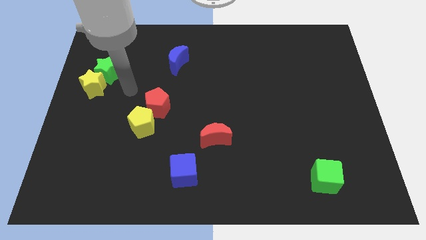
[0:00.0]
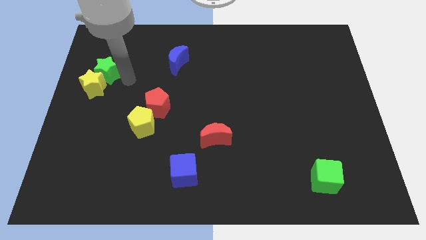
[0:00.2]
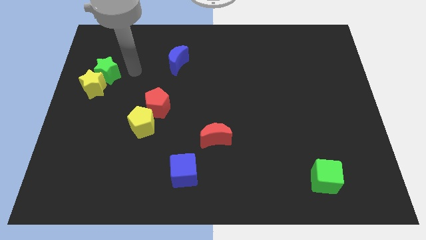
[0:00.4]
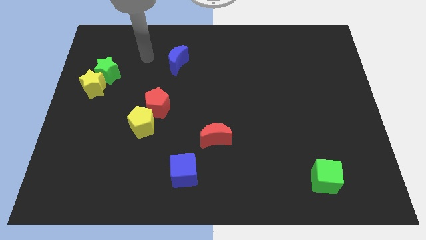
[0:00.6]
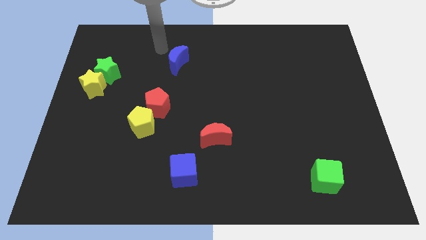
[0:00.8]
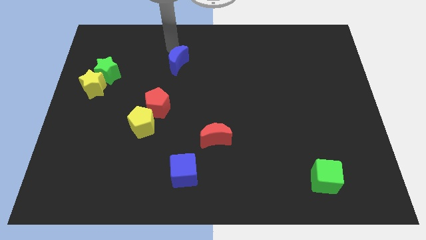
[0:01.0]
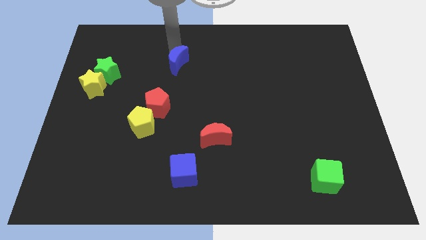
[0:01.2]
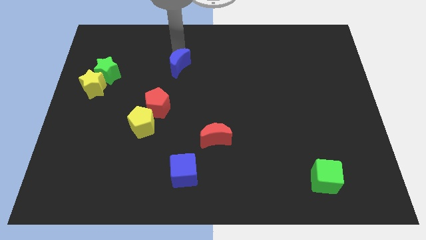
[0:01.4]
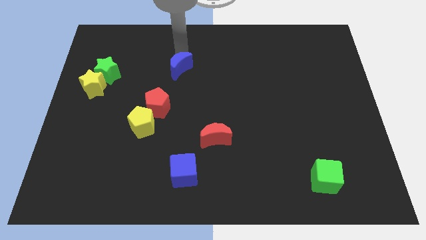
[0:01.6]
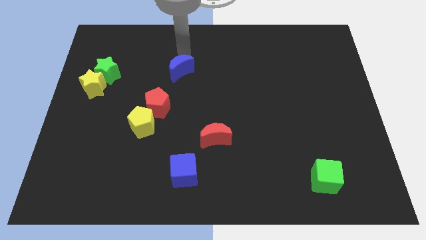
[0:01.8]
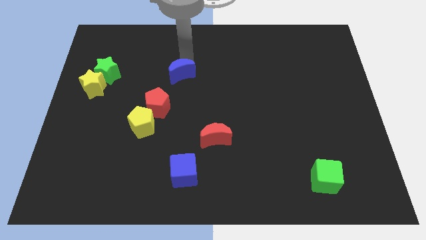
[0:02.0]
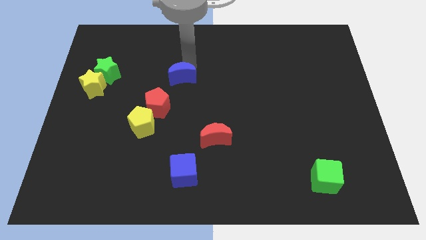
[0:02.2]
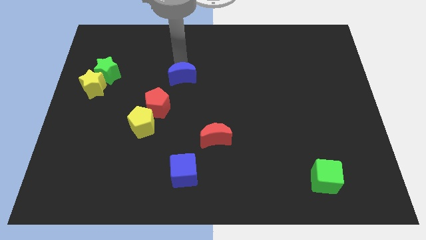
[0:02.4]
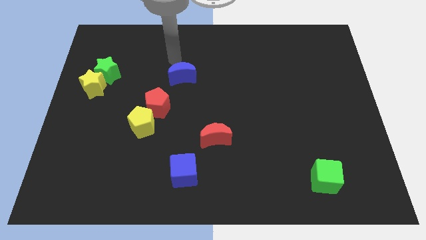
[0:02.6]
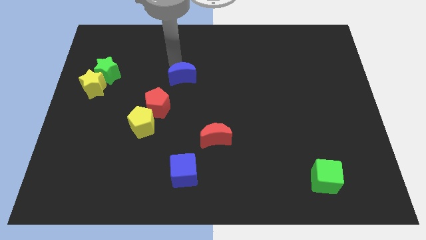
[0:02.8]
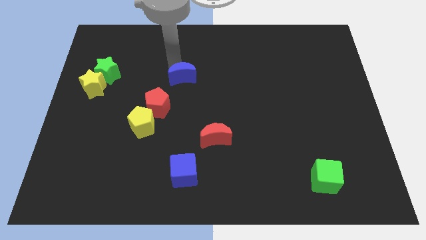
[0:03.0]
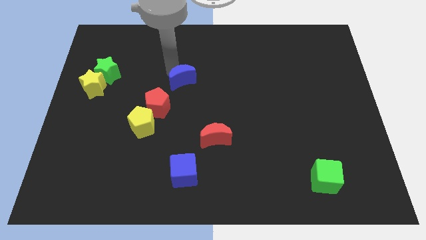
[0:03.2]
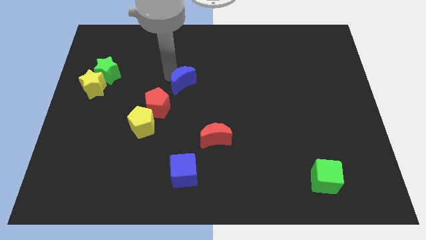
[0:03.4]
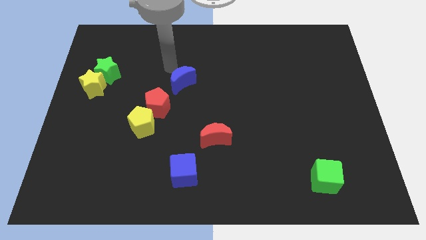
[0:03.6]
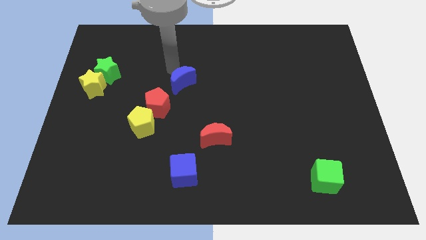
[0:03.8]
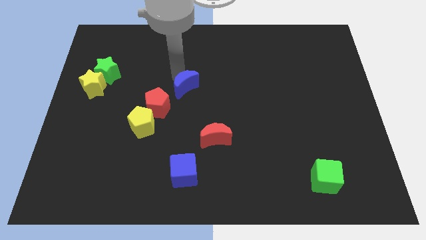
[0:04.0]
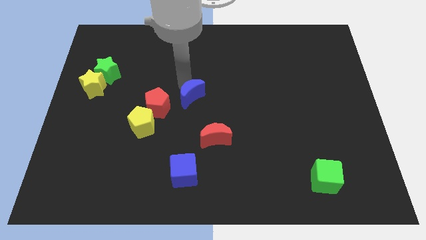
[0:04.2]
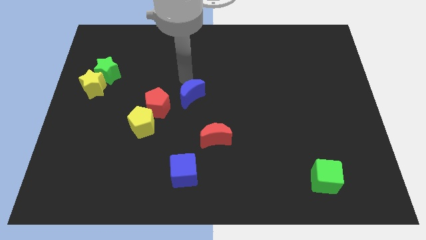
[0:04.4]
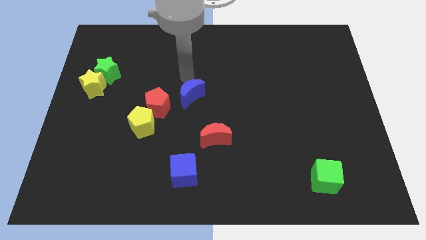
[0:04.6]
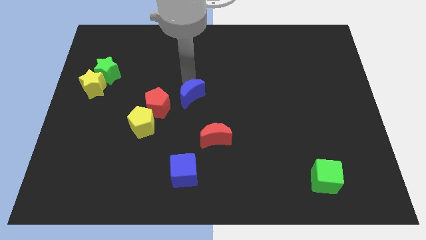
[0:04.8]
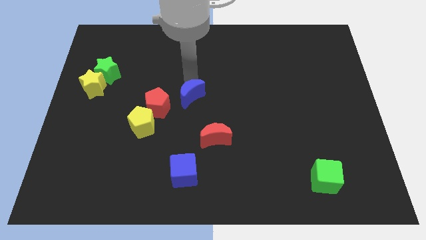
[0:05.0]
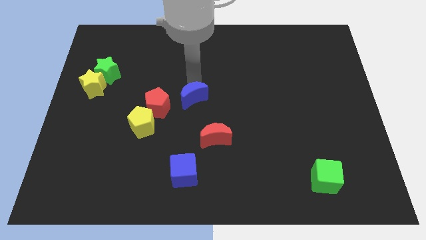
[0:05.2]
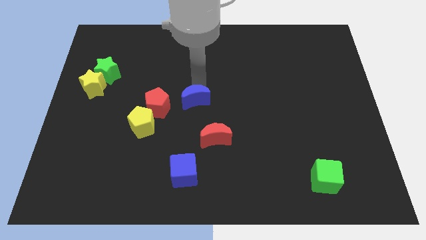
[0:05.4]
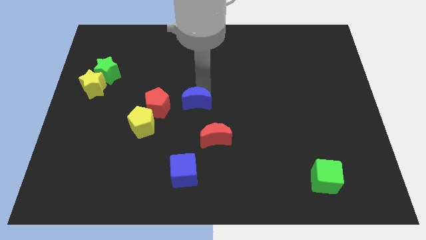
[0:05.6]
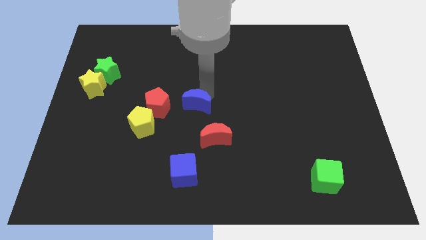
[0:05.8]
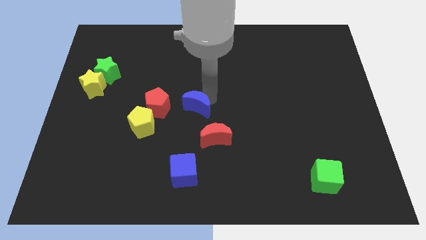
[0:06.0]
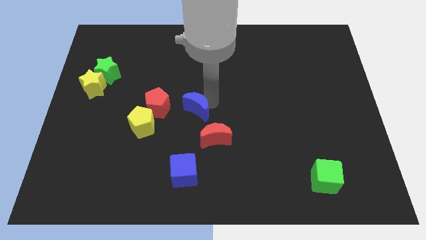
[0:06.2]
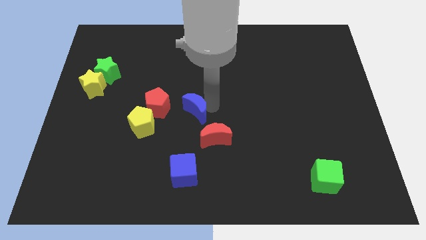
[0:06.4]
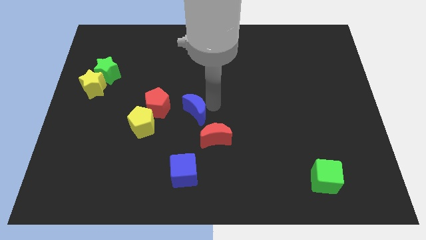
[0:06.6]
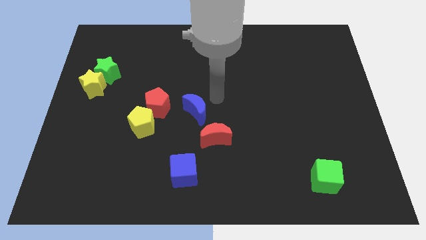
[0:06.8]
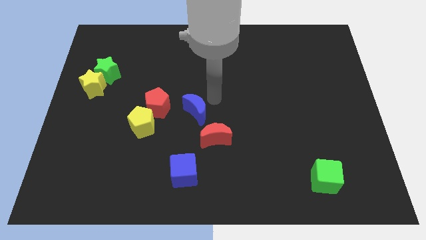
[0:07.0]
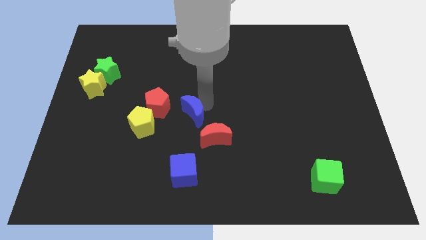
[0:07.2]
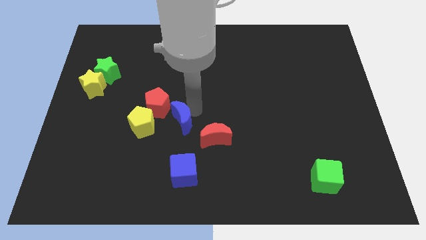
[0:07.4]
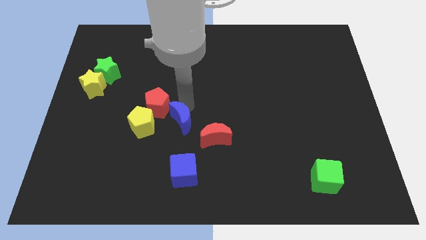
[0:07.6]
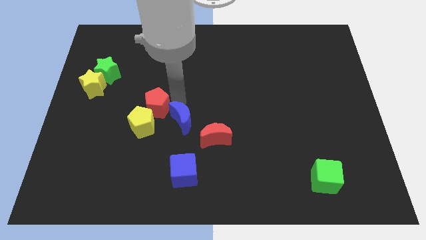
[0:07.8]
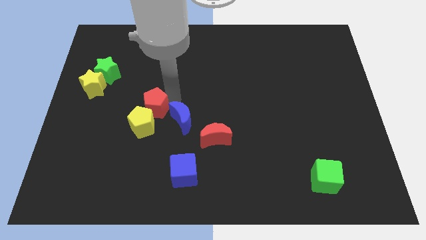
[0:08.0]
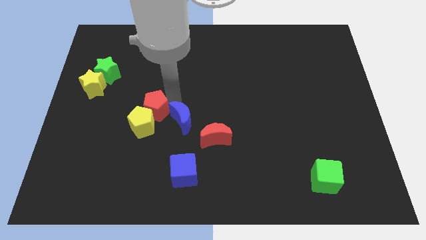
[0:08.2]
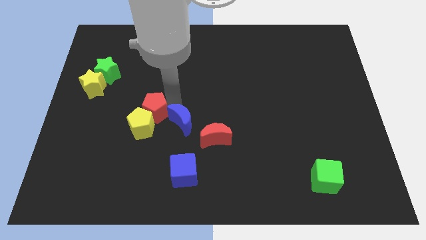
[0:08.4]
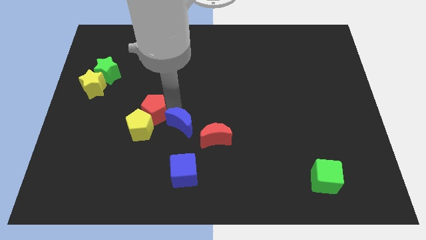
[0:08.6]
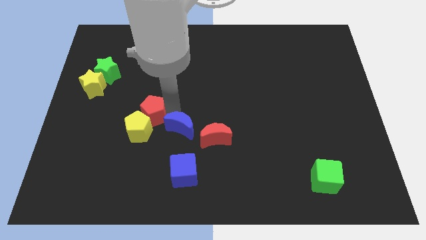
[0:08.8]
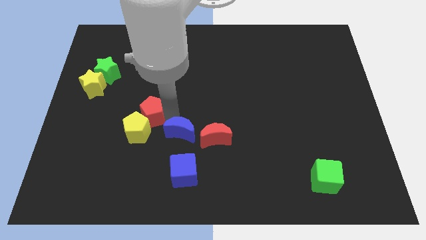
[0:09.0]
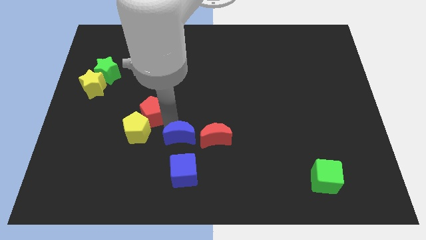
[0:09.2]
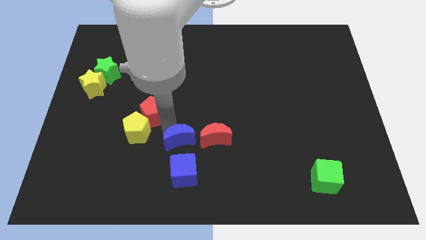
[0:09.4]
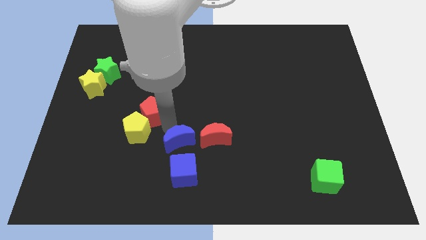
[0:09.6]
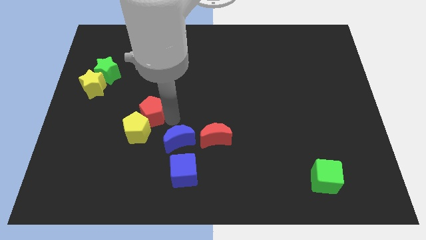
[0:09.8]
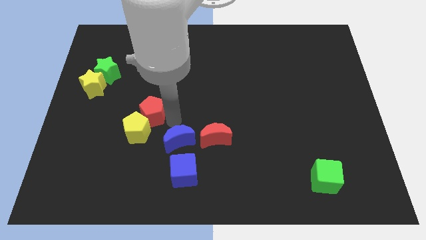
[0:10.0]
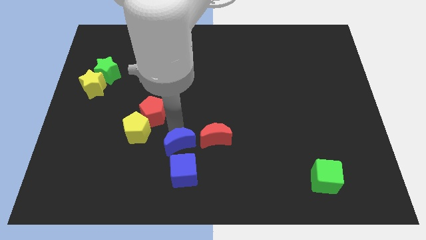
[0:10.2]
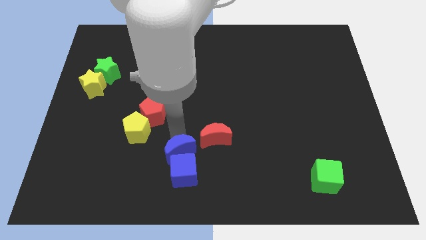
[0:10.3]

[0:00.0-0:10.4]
slide the blue moon towards the blue cube

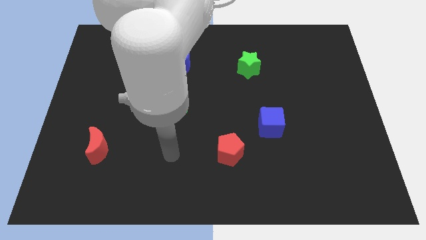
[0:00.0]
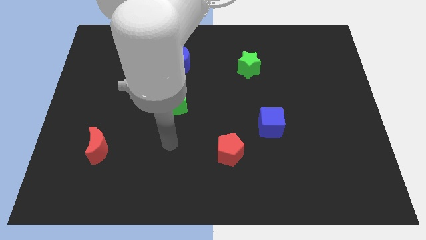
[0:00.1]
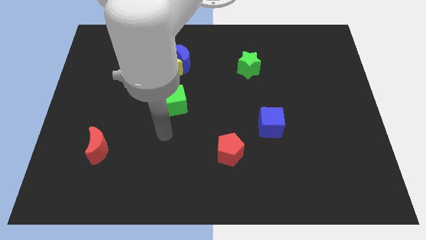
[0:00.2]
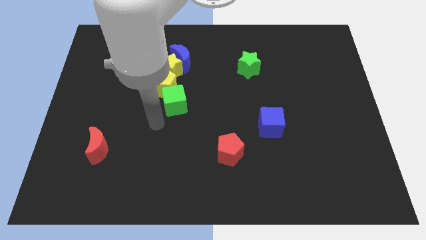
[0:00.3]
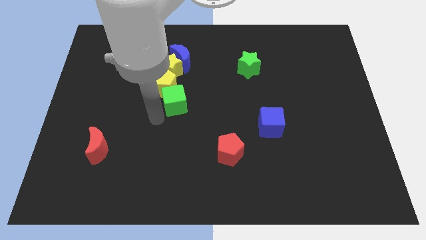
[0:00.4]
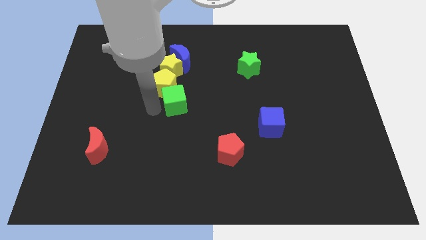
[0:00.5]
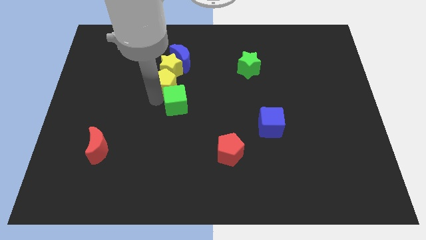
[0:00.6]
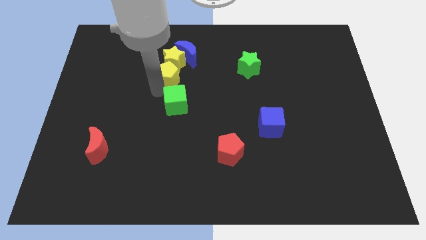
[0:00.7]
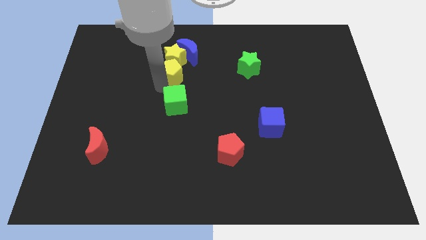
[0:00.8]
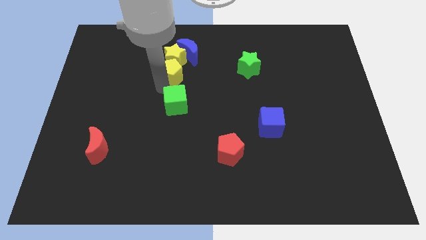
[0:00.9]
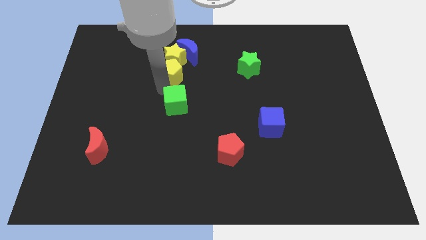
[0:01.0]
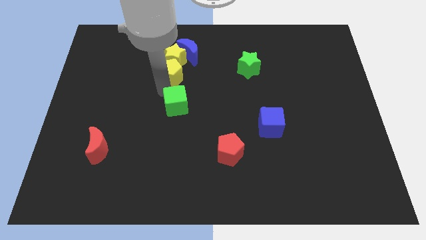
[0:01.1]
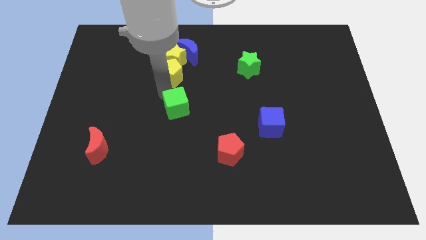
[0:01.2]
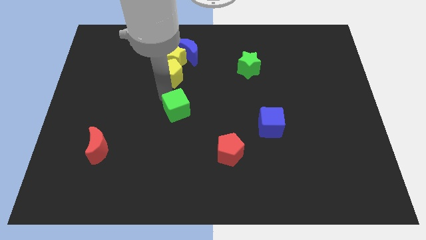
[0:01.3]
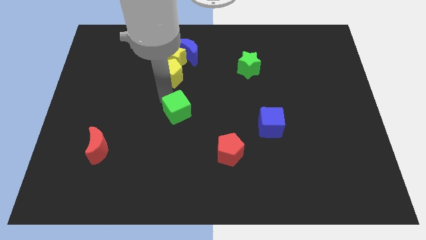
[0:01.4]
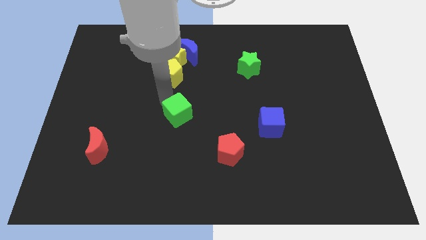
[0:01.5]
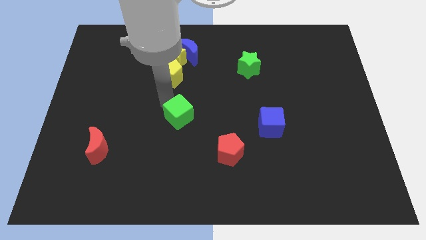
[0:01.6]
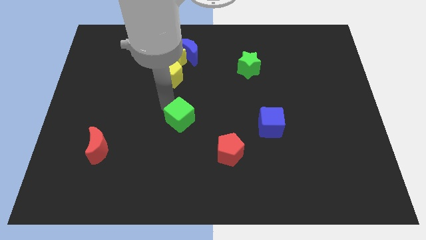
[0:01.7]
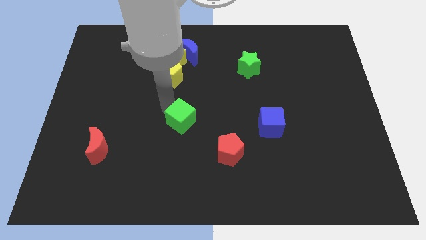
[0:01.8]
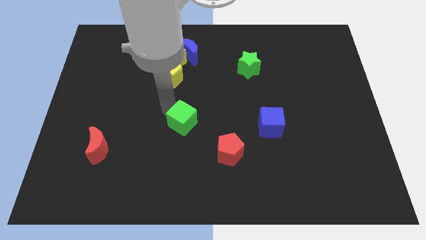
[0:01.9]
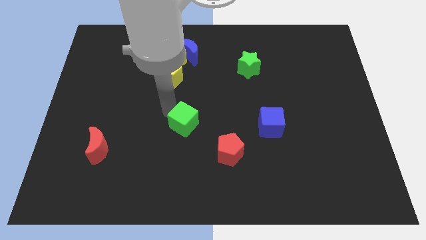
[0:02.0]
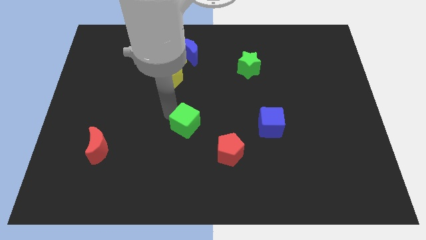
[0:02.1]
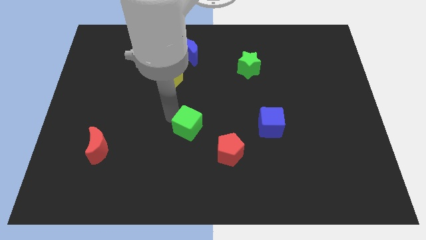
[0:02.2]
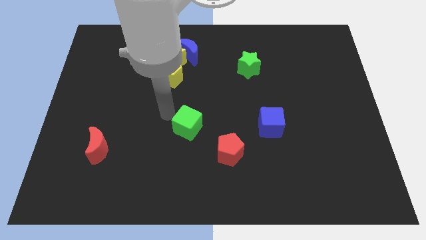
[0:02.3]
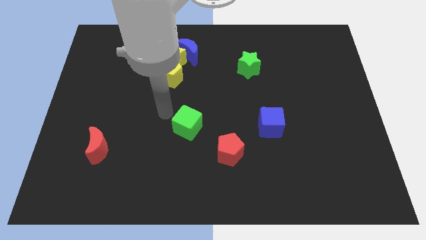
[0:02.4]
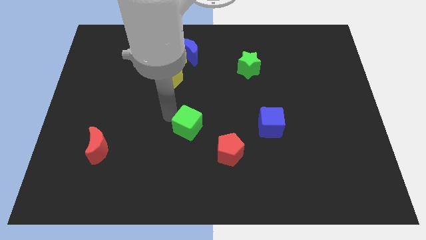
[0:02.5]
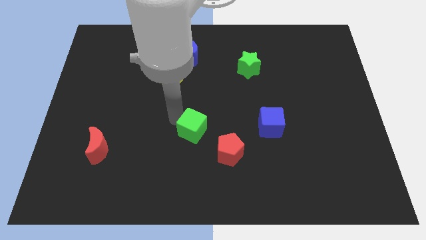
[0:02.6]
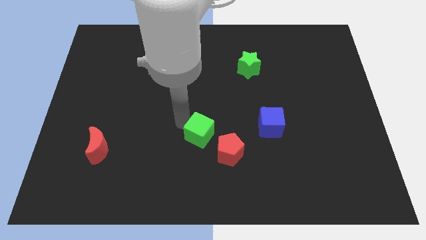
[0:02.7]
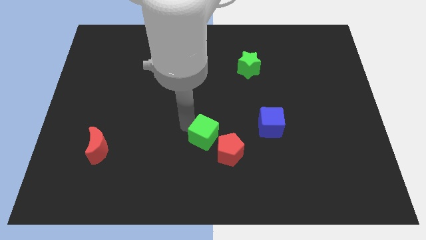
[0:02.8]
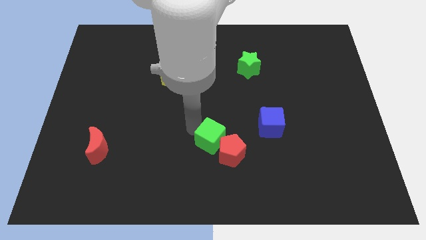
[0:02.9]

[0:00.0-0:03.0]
put the green cube next to the red pentagon
